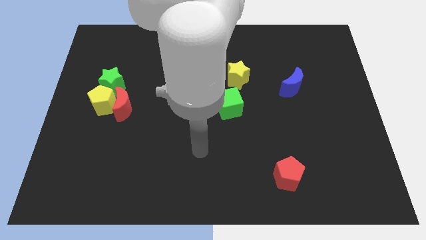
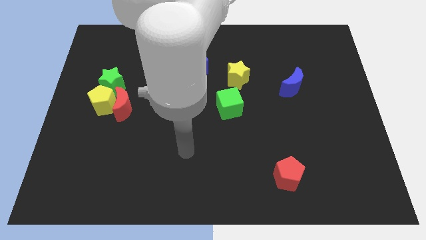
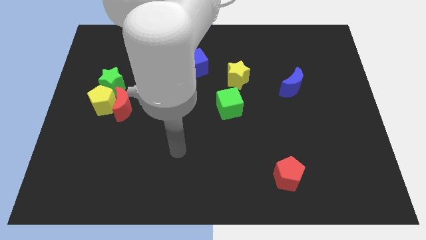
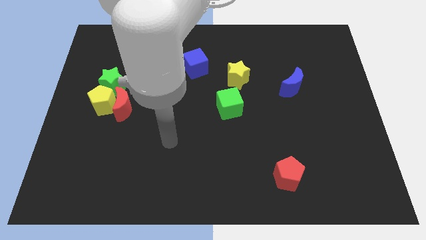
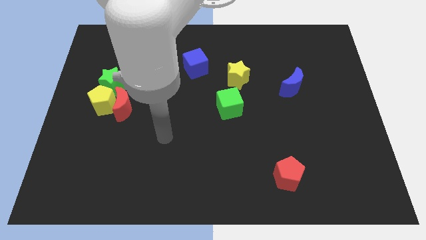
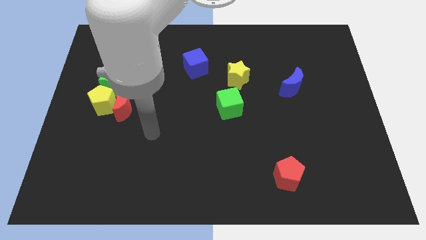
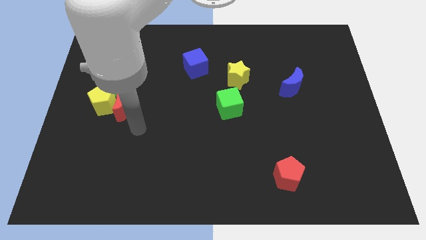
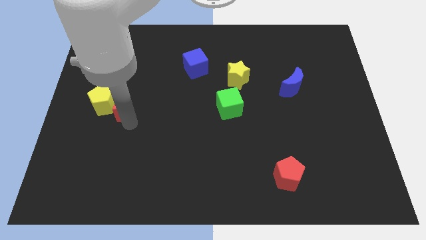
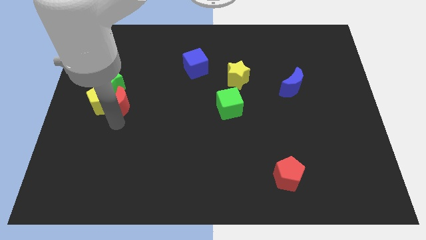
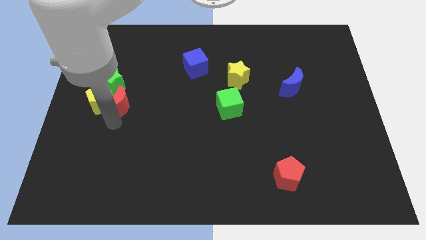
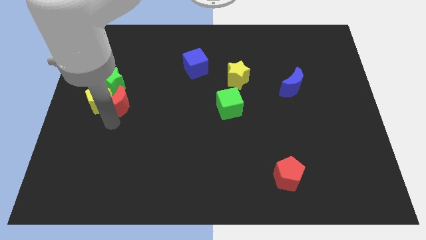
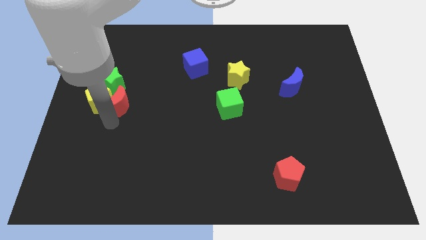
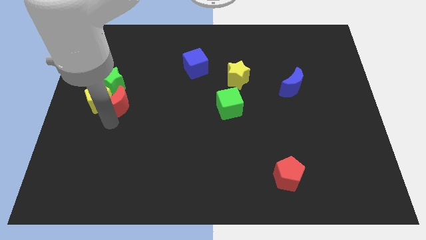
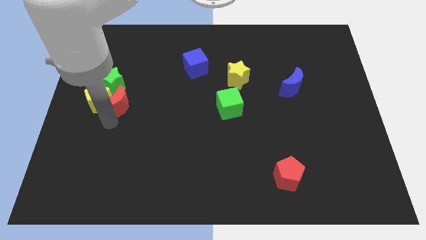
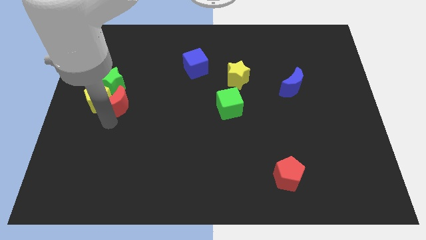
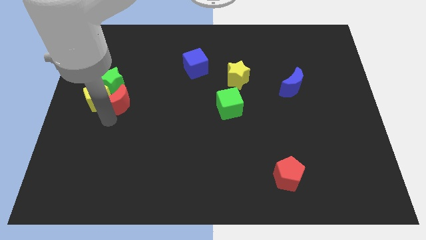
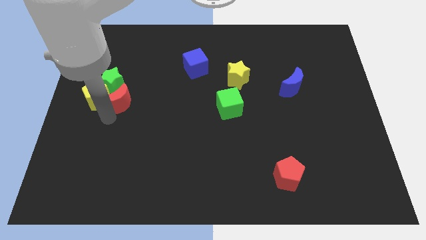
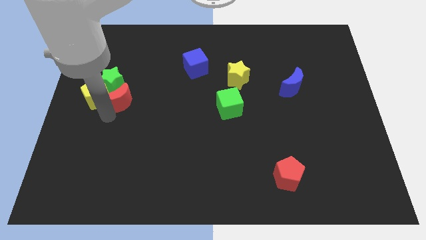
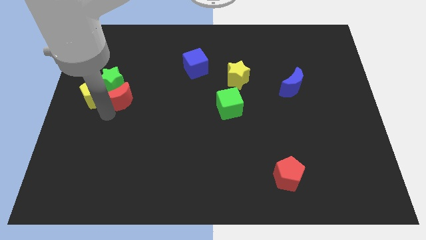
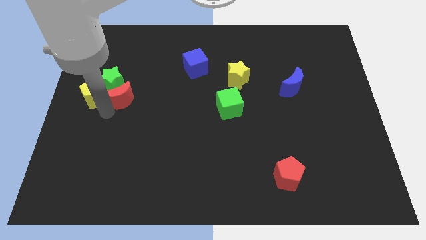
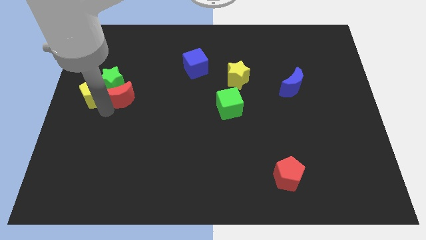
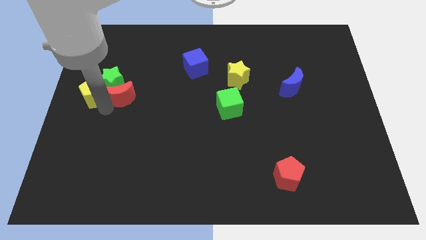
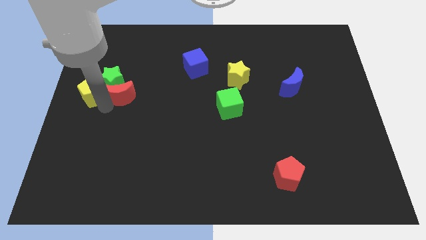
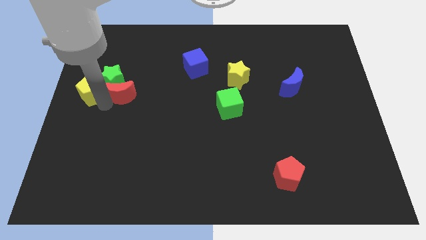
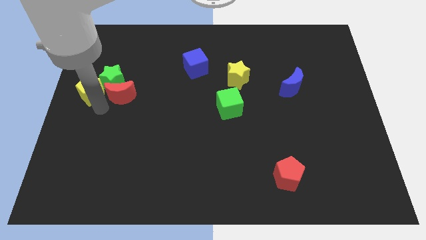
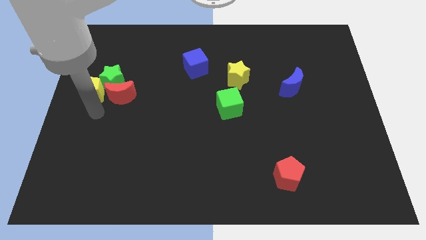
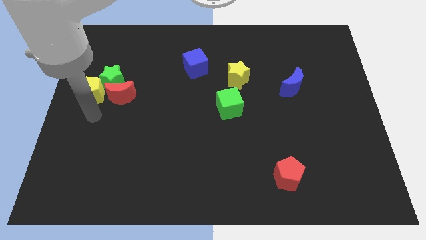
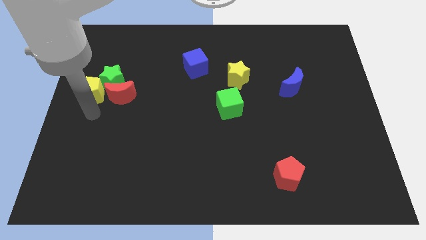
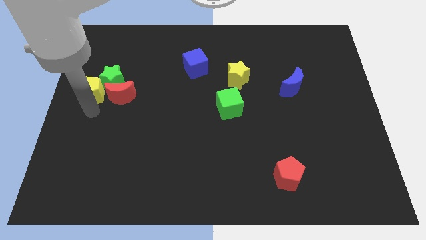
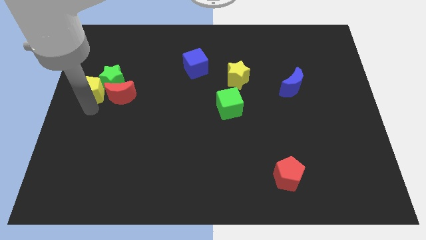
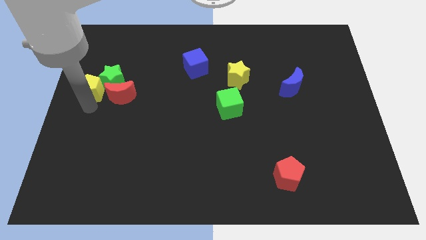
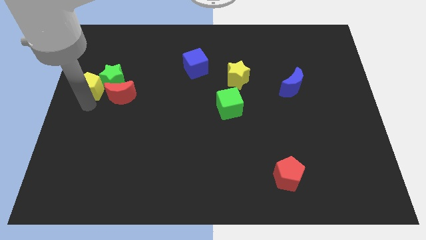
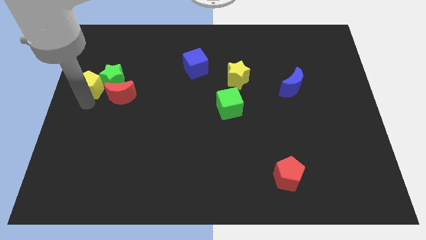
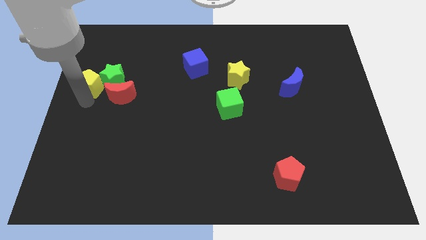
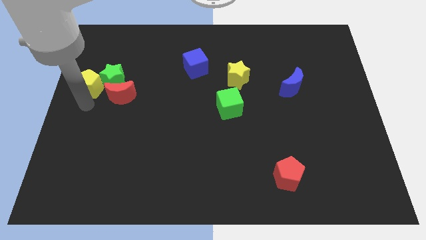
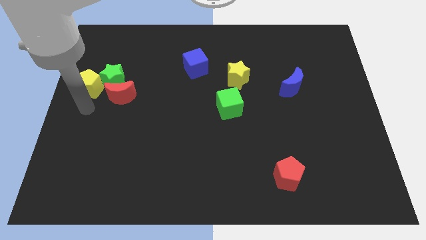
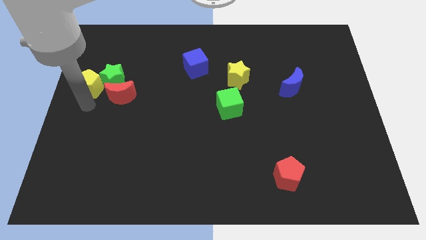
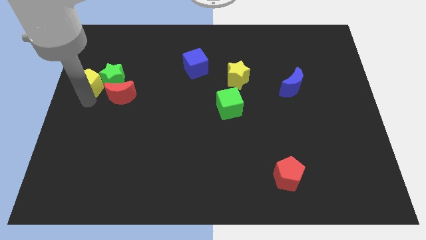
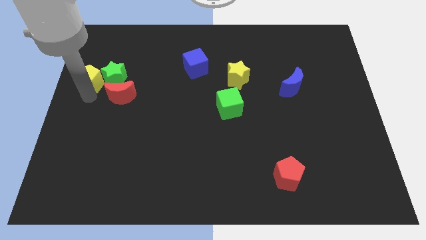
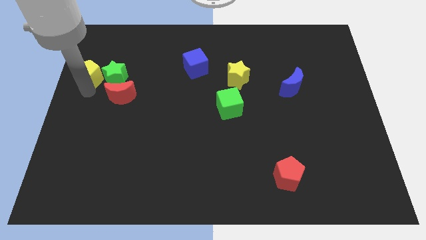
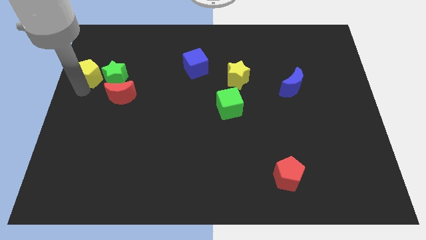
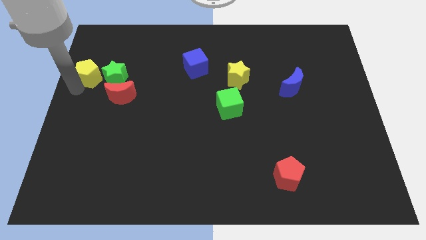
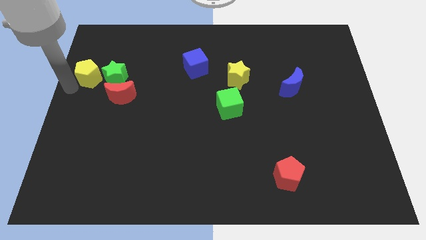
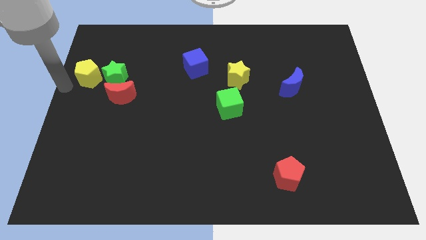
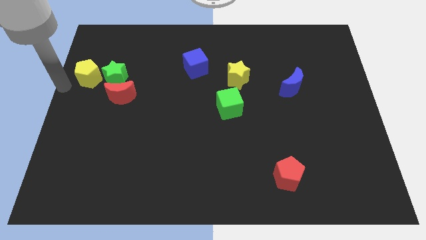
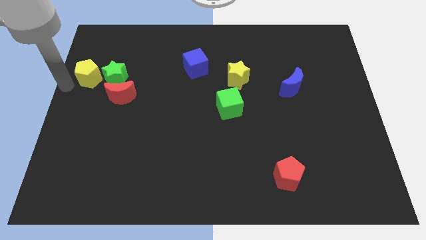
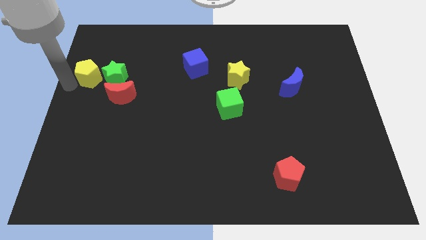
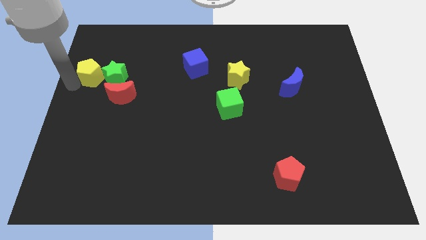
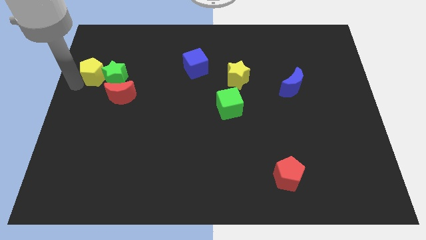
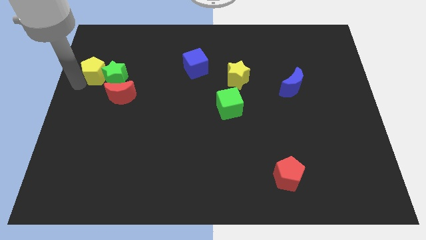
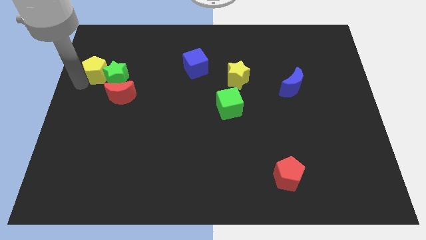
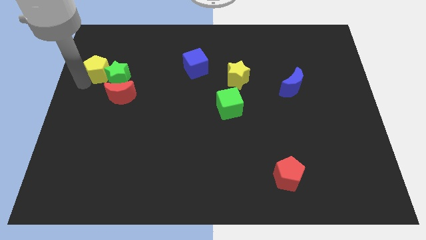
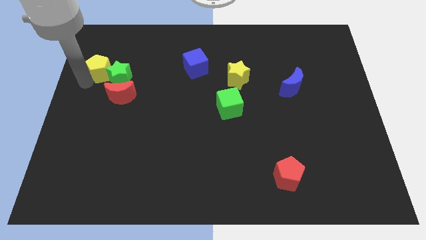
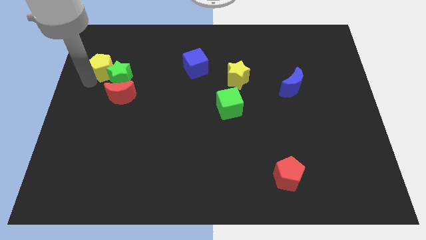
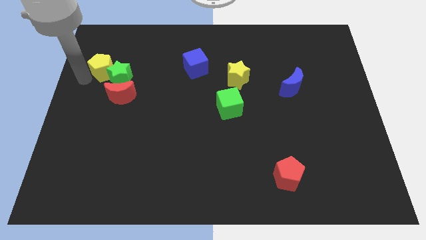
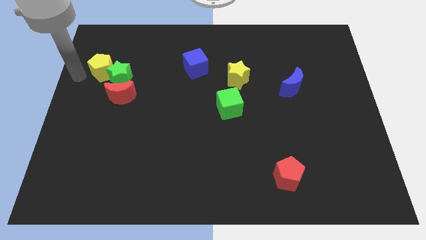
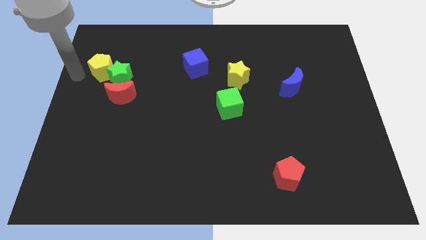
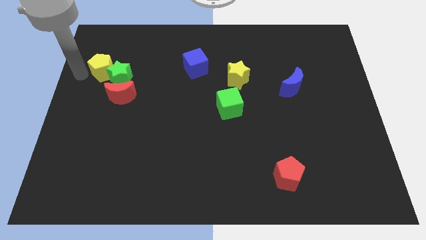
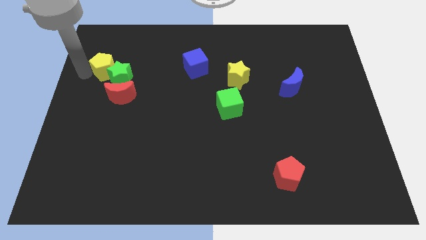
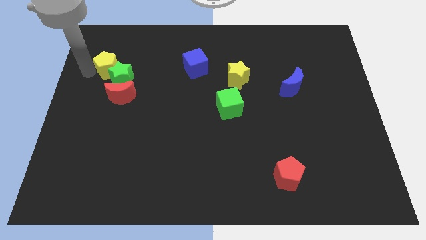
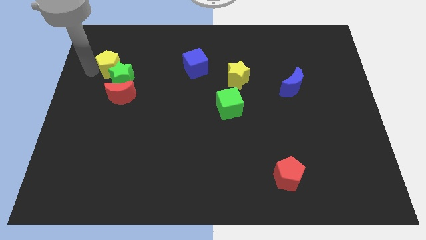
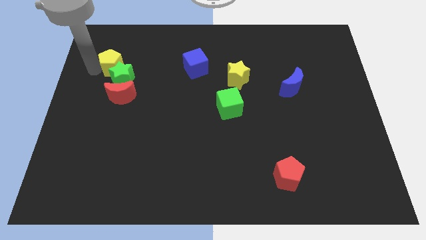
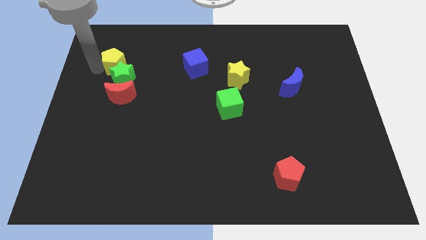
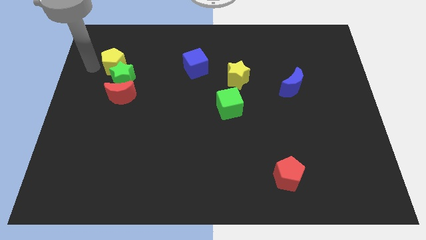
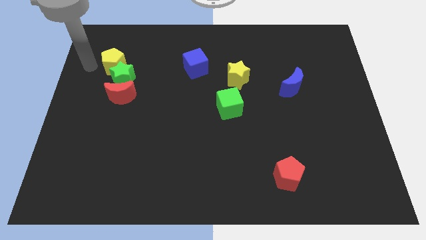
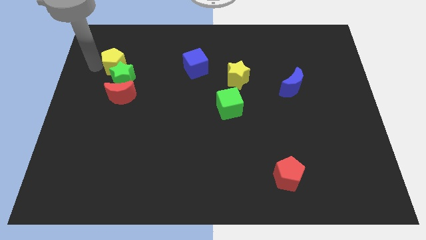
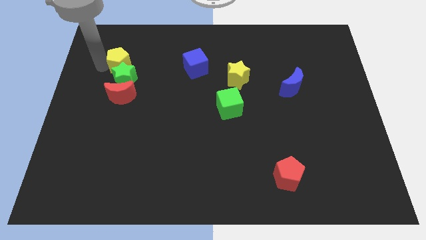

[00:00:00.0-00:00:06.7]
slide the yellow pentagon upwards and right slightly

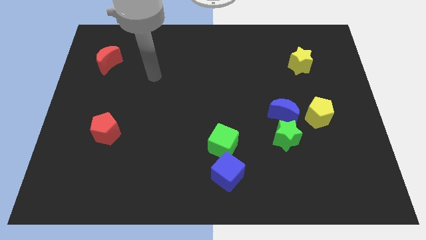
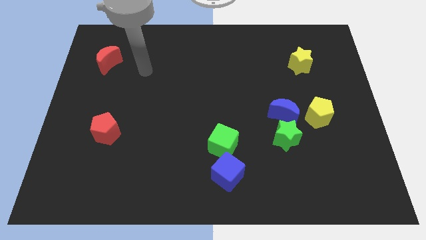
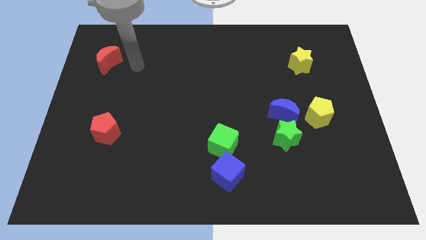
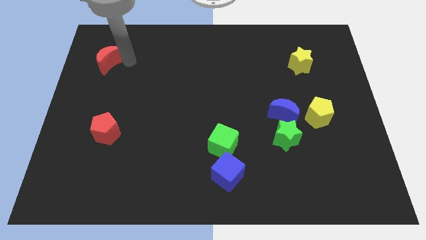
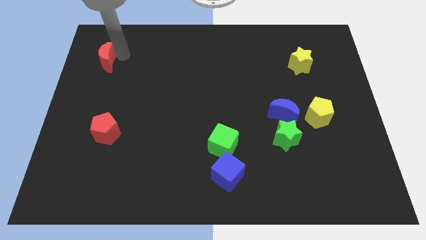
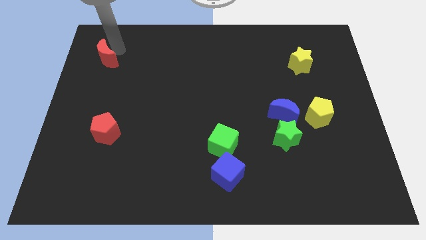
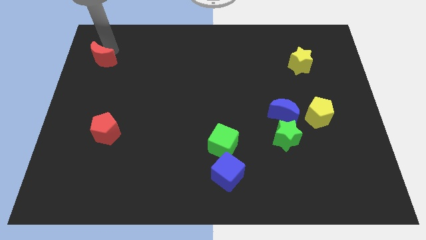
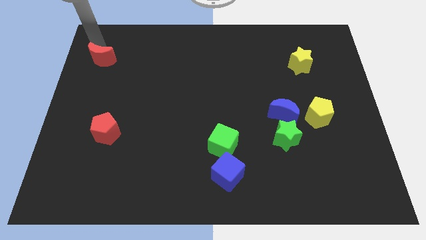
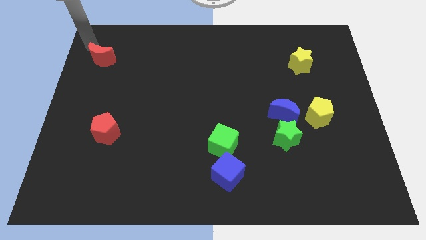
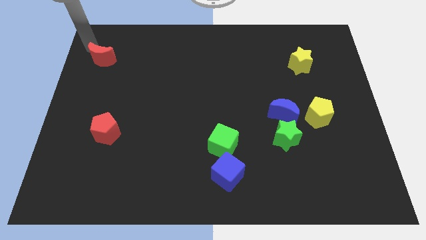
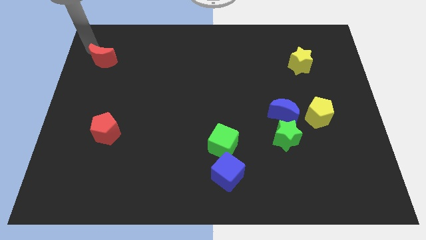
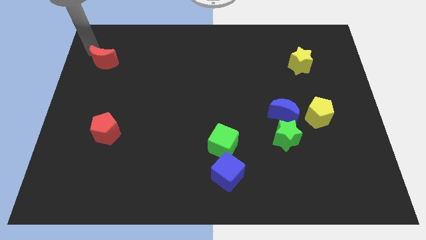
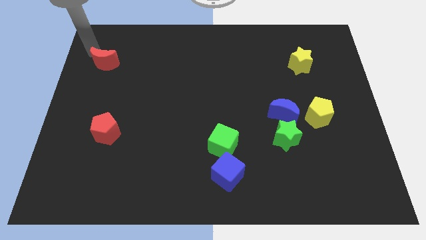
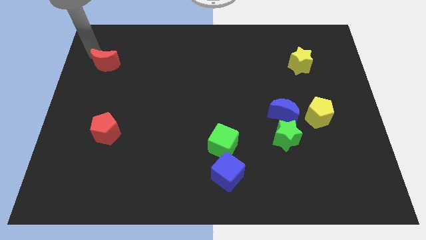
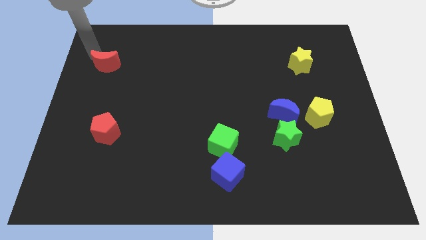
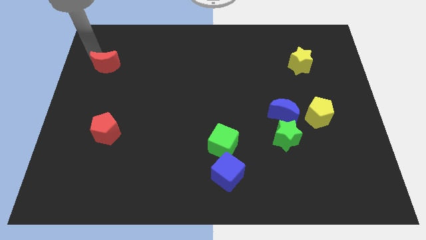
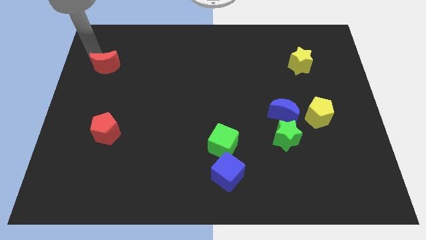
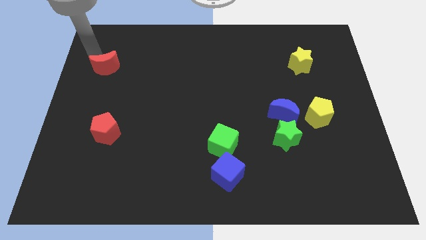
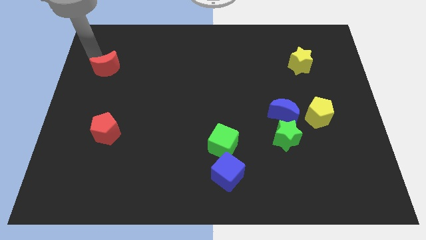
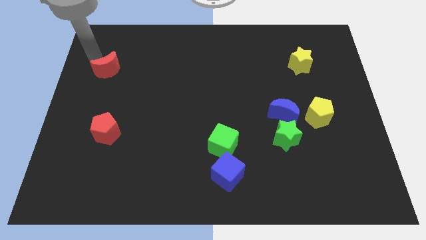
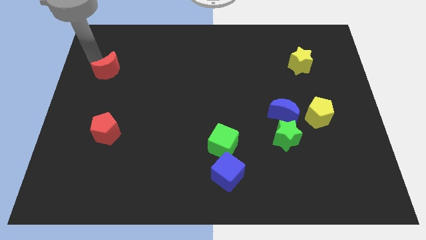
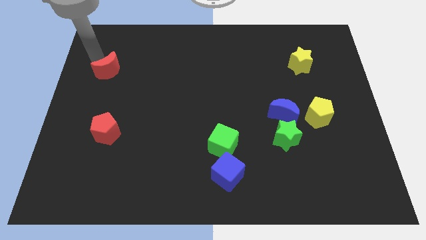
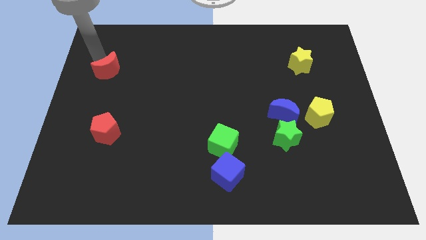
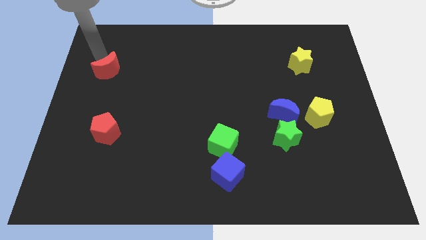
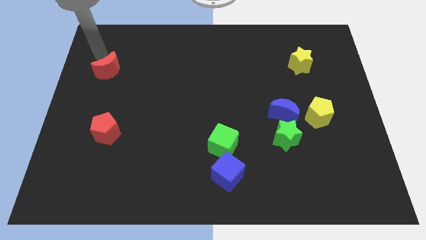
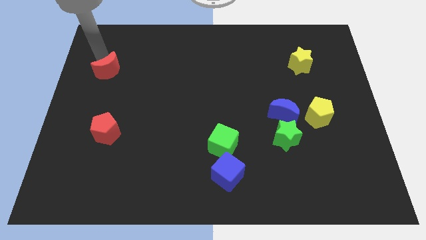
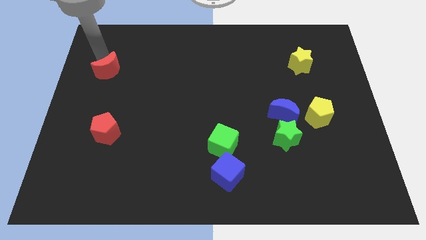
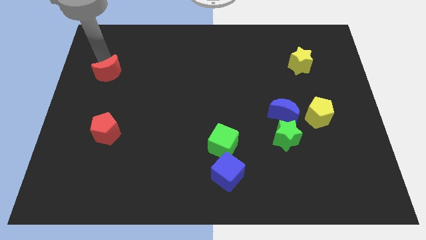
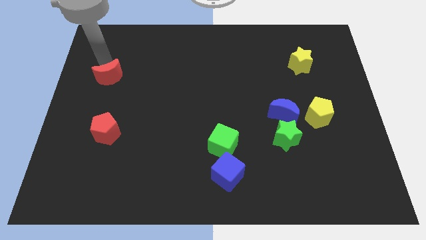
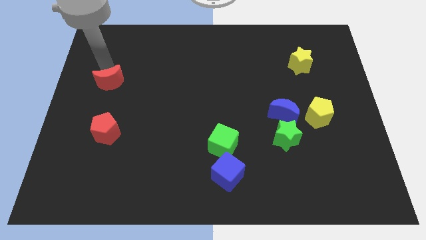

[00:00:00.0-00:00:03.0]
move the red moon down somewhat
